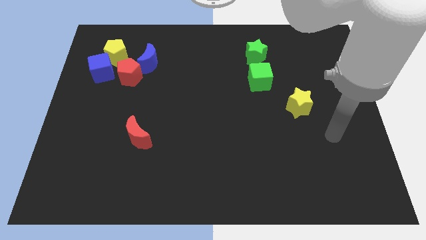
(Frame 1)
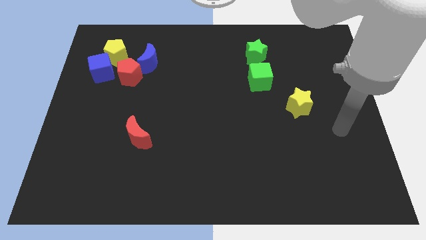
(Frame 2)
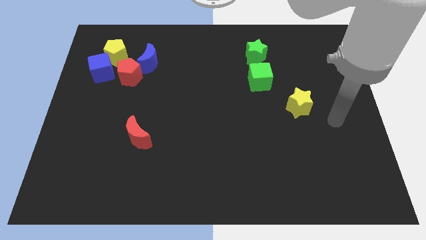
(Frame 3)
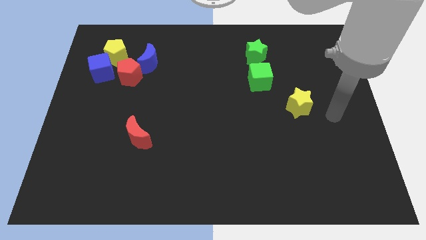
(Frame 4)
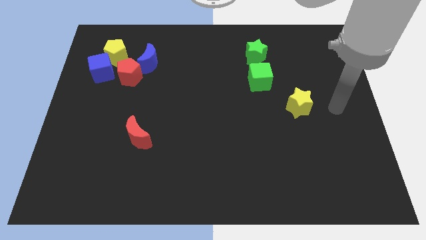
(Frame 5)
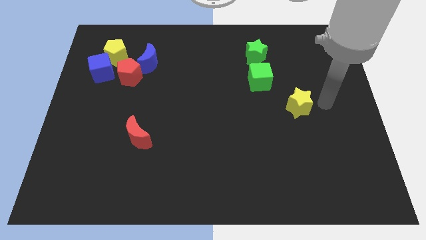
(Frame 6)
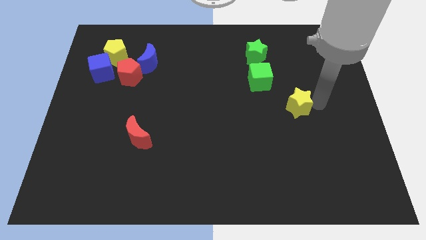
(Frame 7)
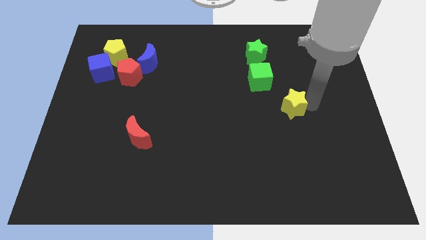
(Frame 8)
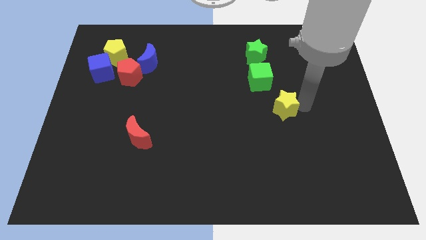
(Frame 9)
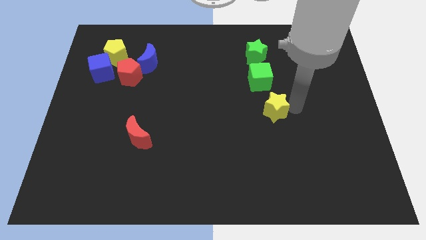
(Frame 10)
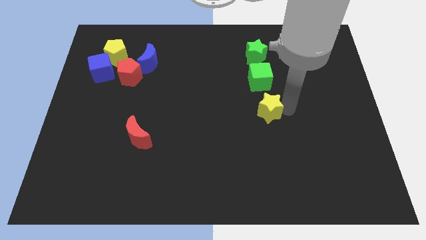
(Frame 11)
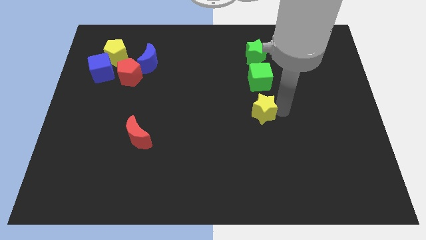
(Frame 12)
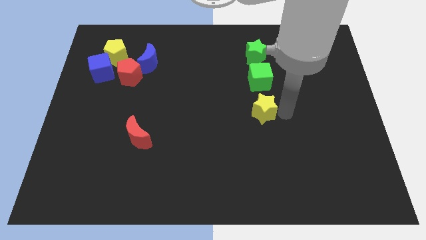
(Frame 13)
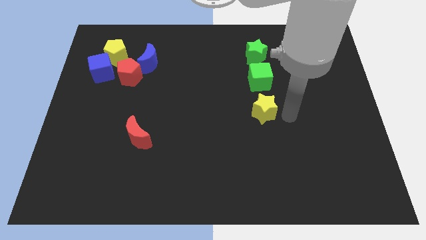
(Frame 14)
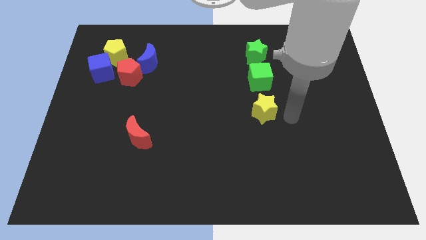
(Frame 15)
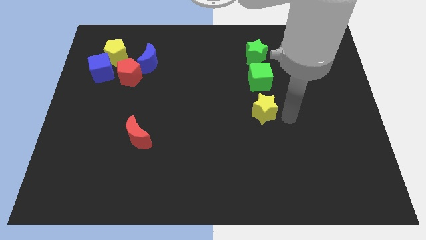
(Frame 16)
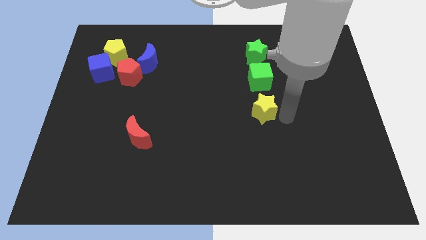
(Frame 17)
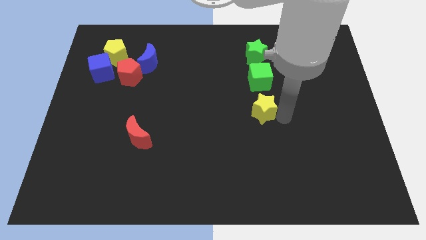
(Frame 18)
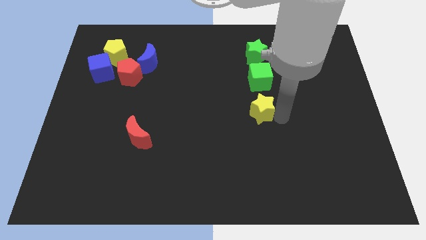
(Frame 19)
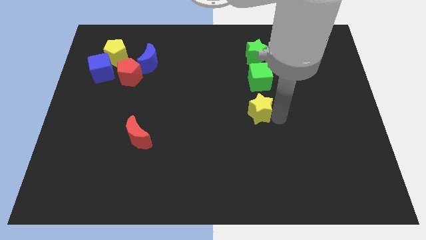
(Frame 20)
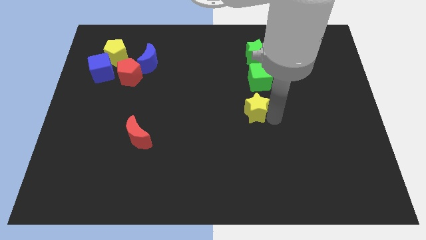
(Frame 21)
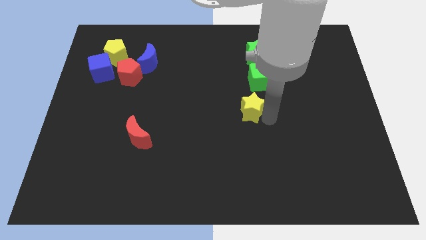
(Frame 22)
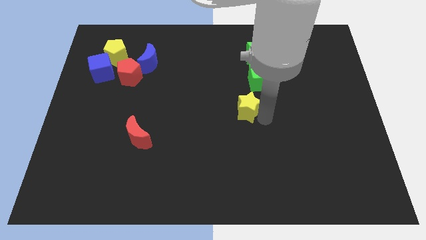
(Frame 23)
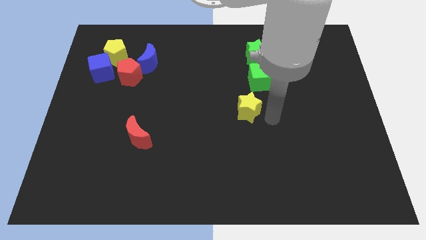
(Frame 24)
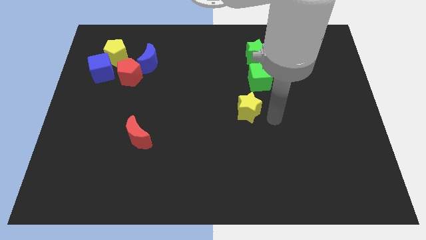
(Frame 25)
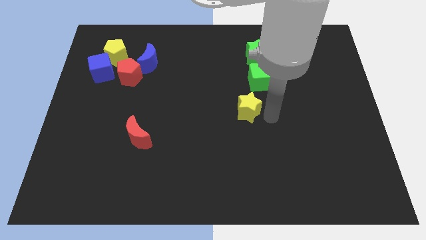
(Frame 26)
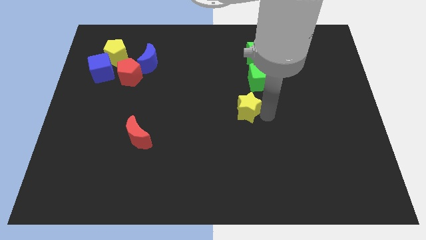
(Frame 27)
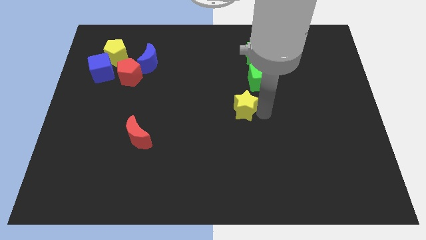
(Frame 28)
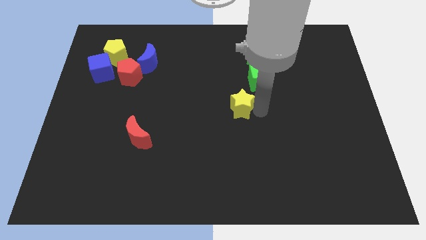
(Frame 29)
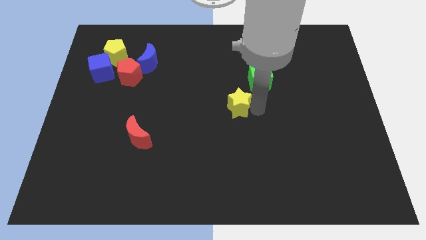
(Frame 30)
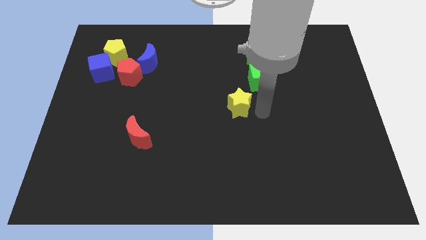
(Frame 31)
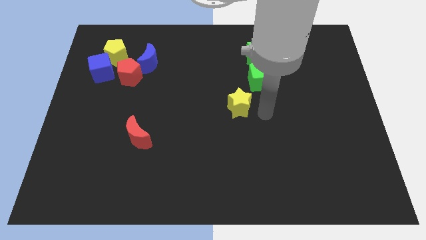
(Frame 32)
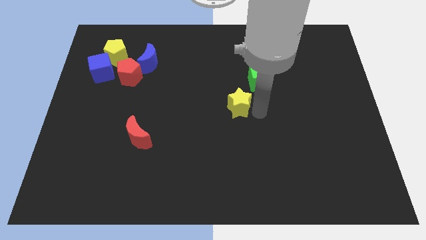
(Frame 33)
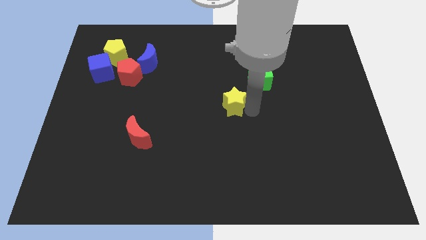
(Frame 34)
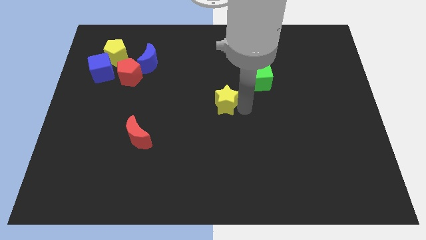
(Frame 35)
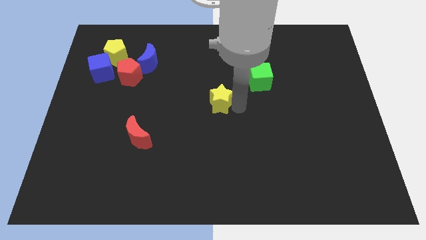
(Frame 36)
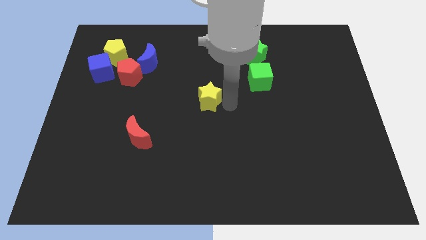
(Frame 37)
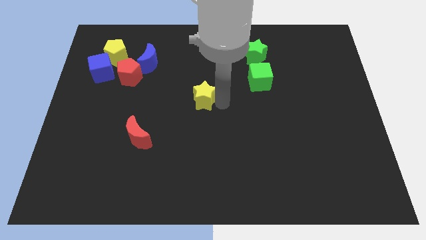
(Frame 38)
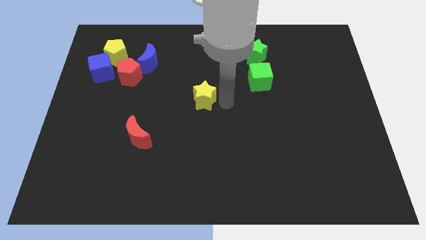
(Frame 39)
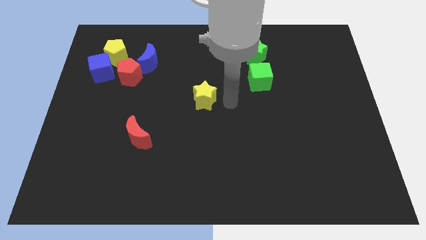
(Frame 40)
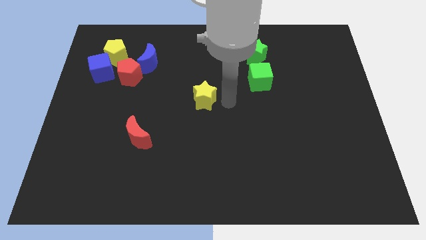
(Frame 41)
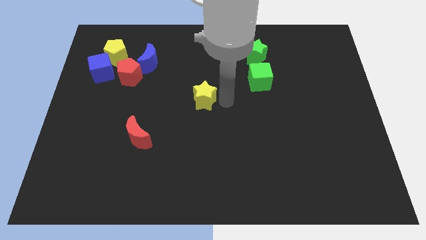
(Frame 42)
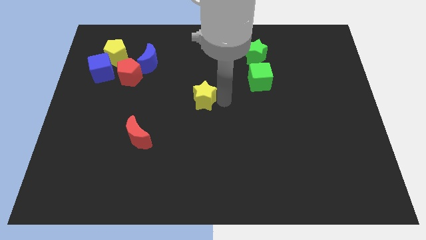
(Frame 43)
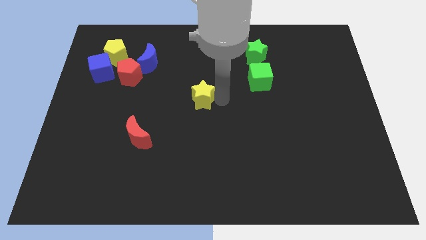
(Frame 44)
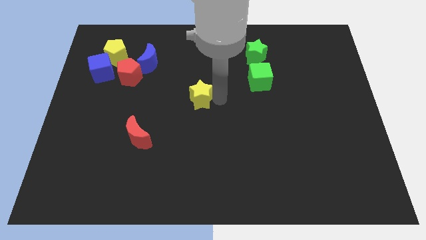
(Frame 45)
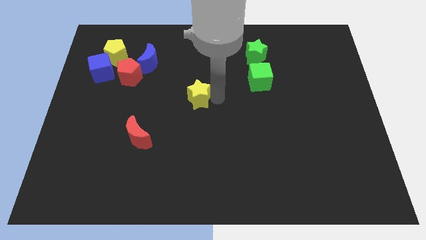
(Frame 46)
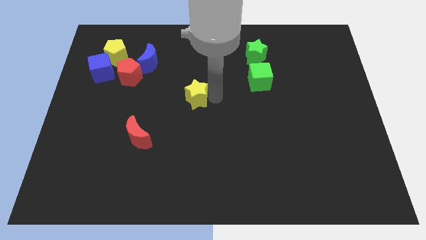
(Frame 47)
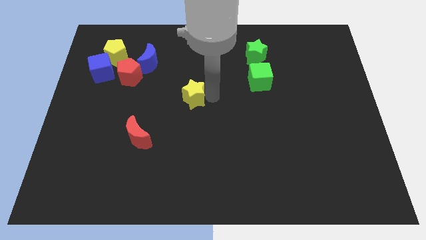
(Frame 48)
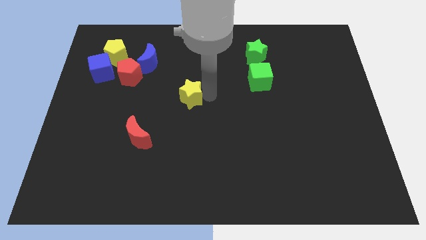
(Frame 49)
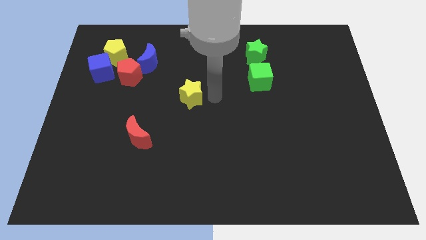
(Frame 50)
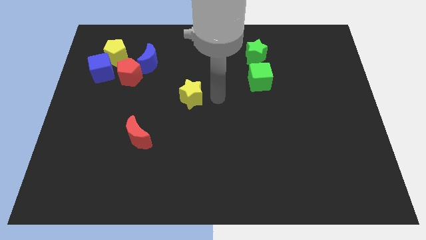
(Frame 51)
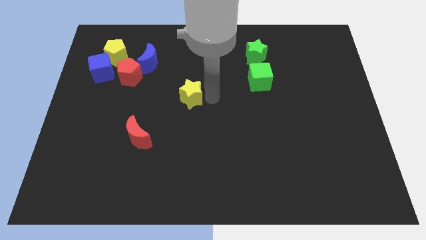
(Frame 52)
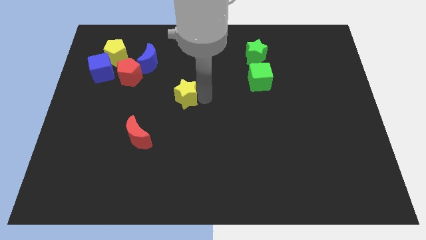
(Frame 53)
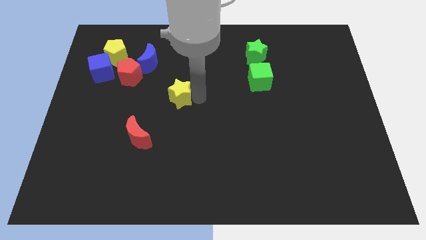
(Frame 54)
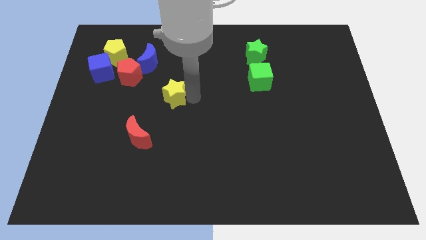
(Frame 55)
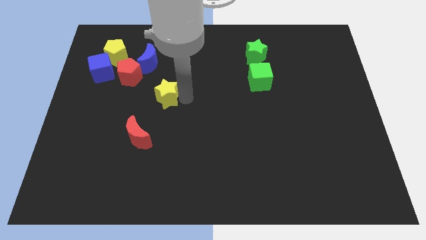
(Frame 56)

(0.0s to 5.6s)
move the yellow star to the bottom right side of the red pentagon

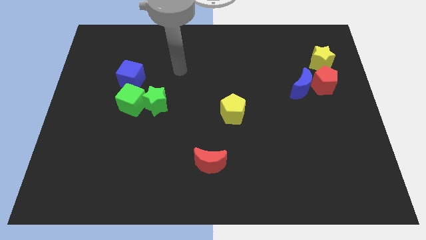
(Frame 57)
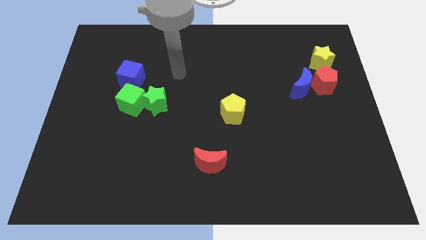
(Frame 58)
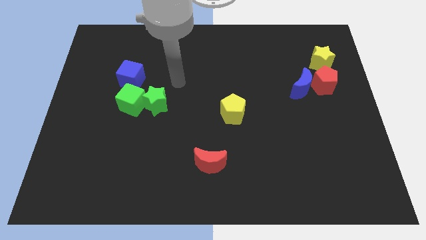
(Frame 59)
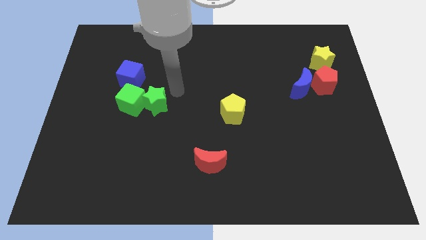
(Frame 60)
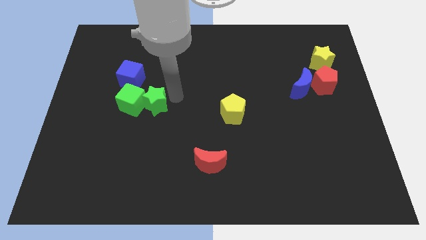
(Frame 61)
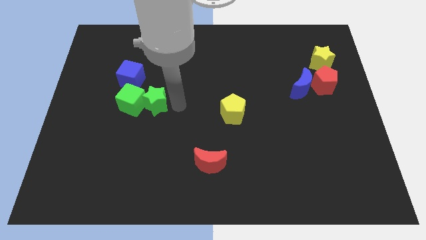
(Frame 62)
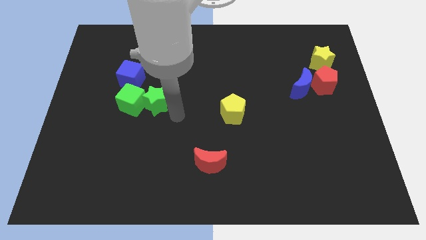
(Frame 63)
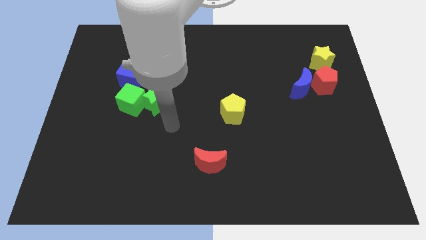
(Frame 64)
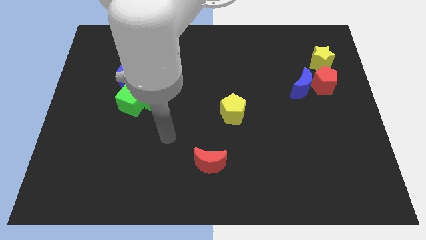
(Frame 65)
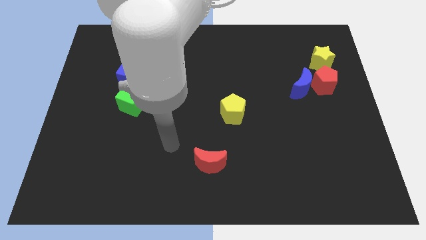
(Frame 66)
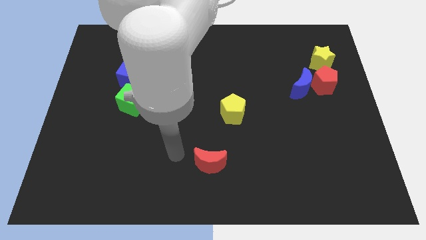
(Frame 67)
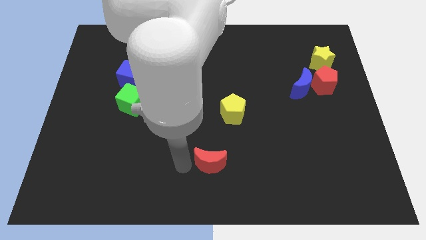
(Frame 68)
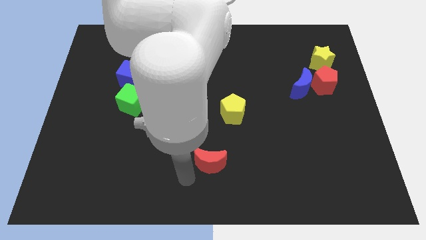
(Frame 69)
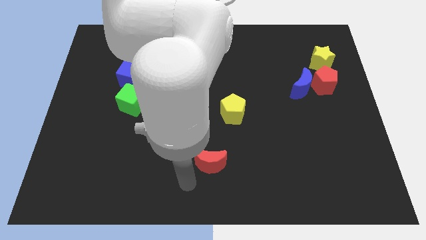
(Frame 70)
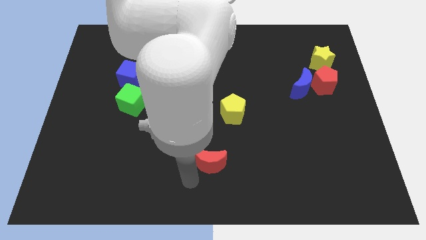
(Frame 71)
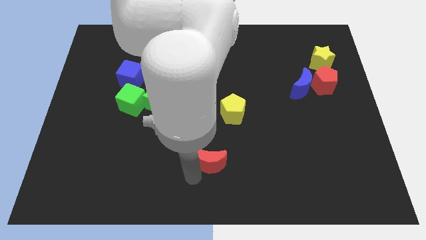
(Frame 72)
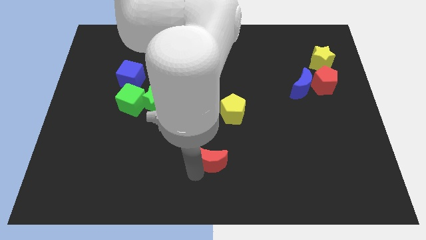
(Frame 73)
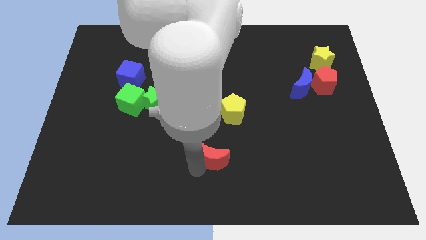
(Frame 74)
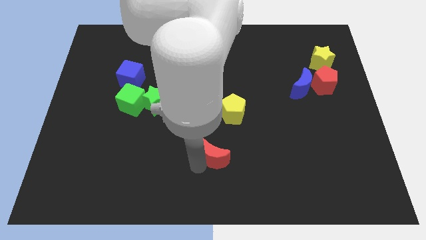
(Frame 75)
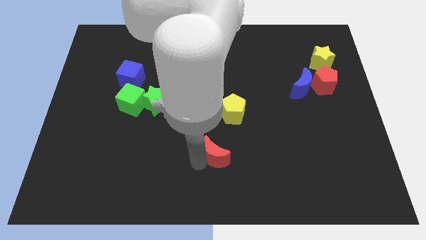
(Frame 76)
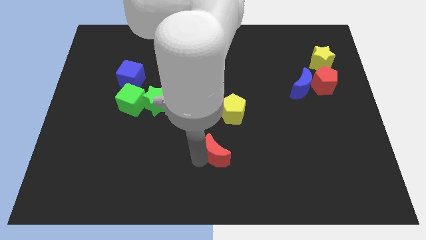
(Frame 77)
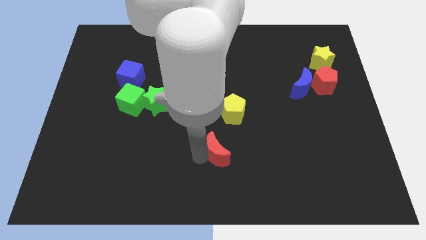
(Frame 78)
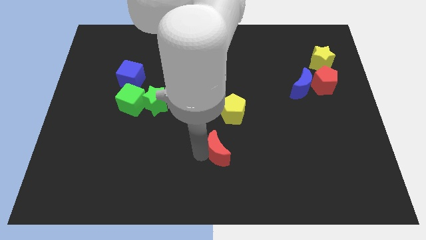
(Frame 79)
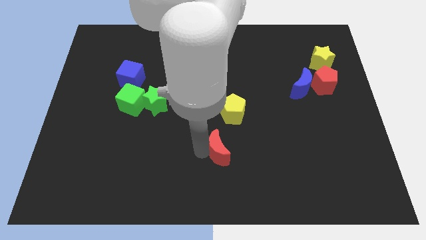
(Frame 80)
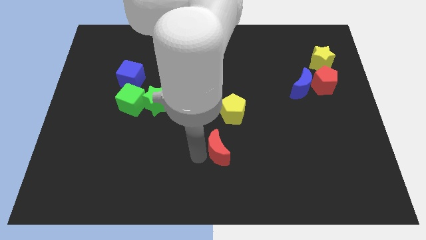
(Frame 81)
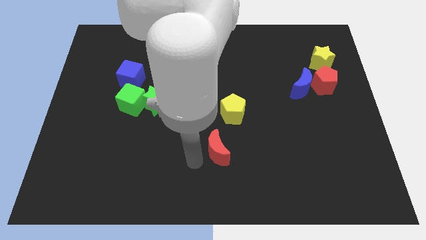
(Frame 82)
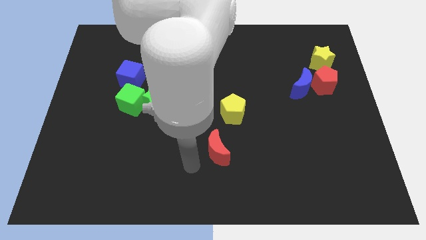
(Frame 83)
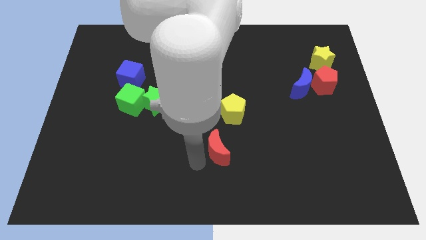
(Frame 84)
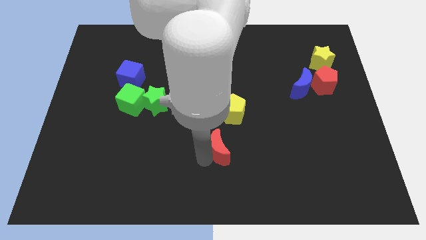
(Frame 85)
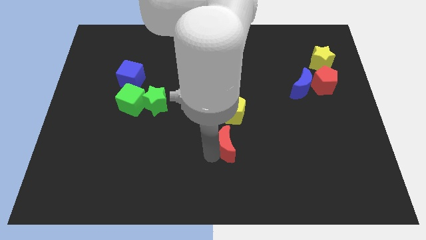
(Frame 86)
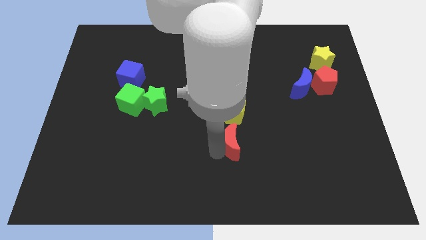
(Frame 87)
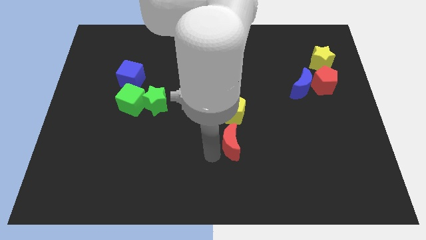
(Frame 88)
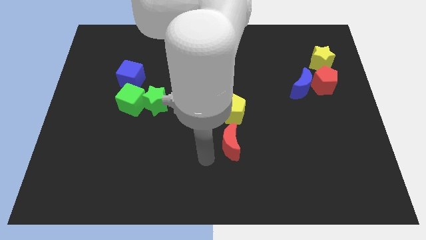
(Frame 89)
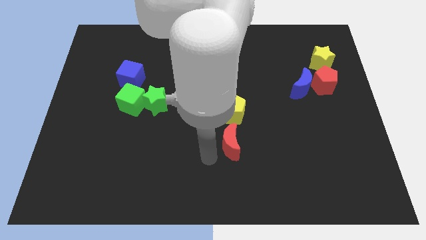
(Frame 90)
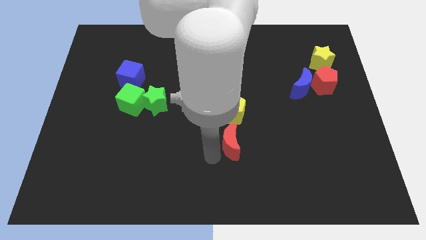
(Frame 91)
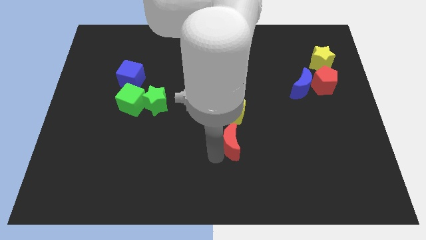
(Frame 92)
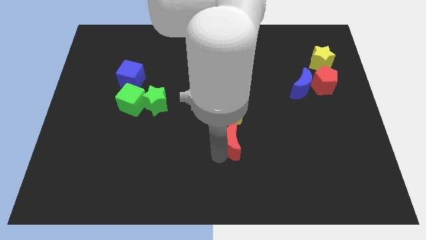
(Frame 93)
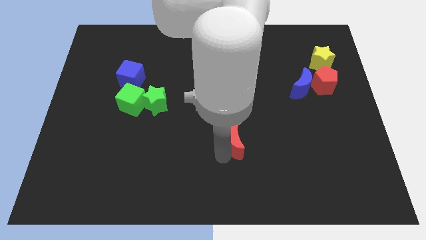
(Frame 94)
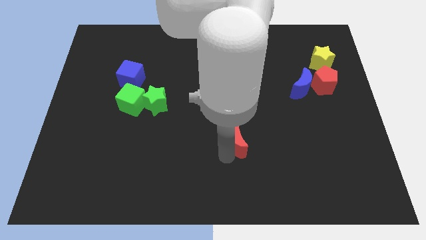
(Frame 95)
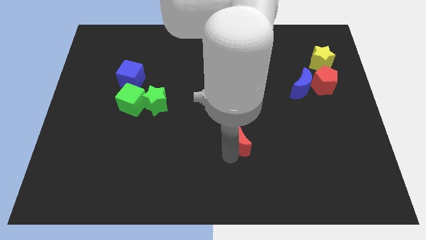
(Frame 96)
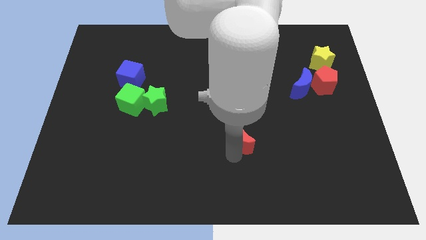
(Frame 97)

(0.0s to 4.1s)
move the red moon to the bottom right of the yellow pentagon
